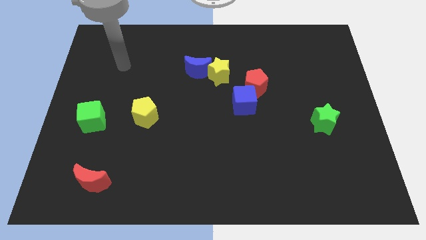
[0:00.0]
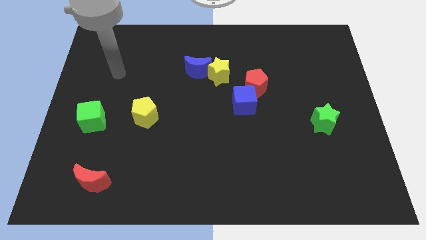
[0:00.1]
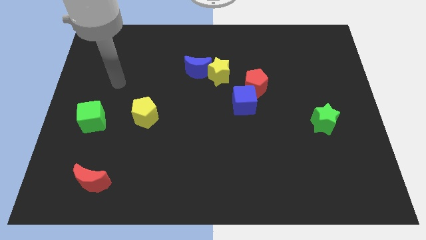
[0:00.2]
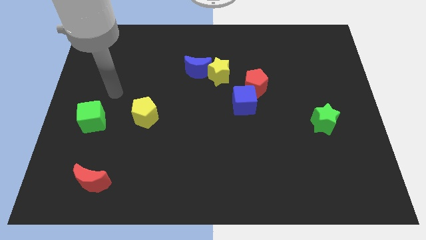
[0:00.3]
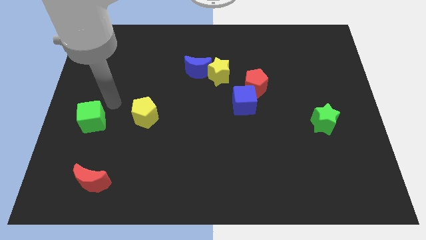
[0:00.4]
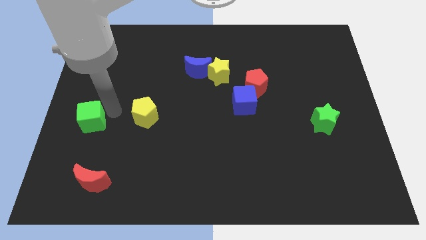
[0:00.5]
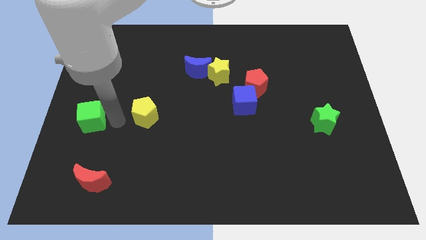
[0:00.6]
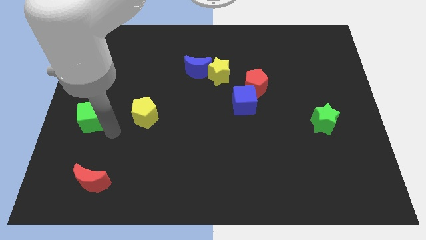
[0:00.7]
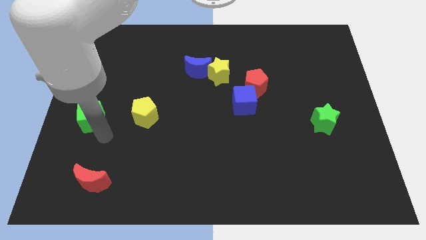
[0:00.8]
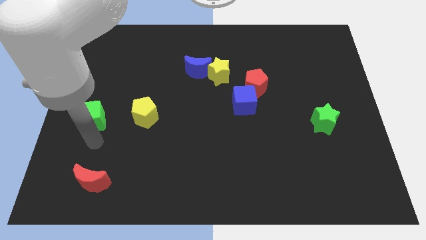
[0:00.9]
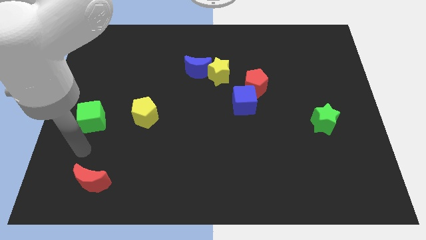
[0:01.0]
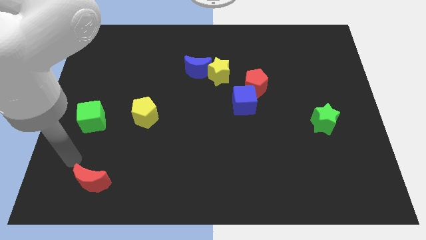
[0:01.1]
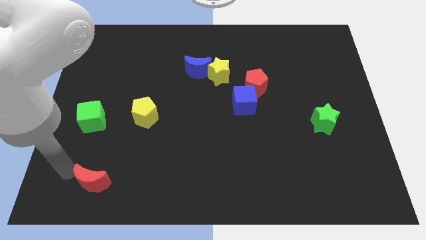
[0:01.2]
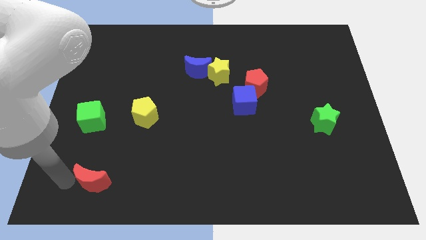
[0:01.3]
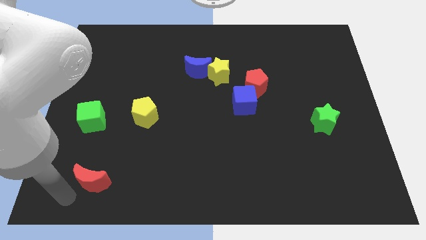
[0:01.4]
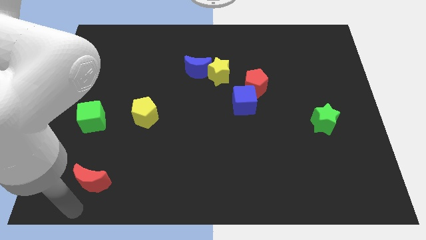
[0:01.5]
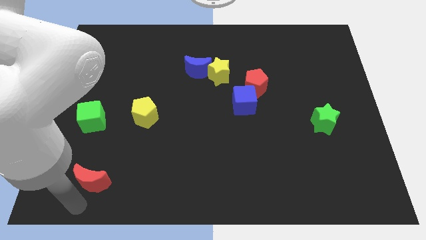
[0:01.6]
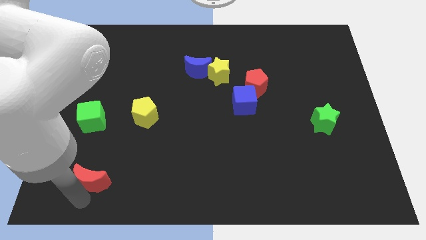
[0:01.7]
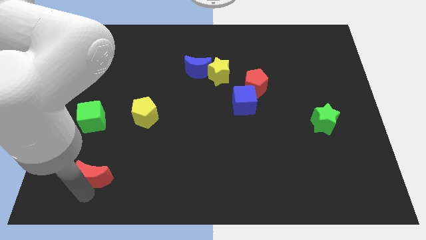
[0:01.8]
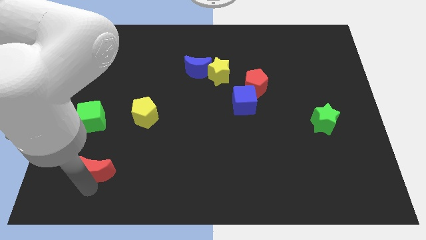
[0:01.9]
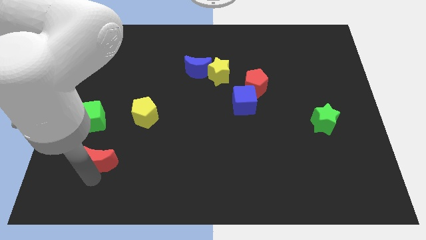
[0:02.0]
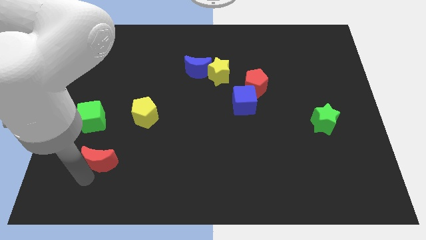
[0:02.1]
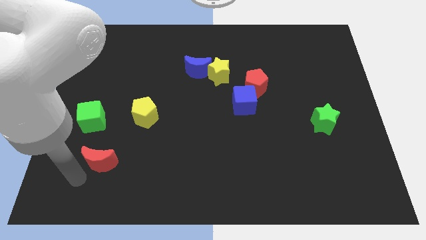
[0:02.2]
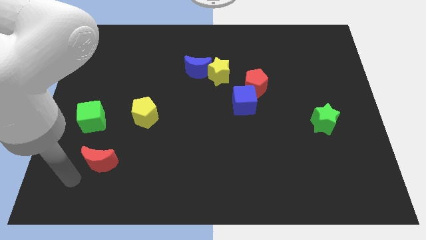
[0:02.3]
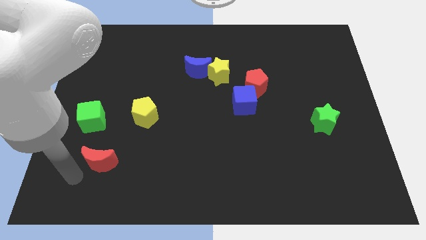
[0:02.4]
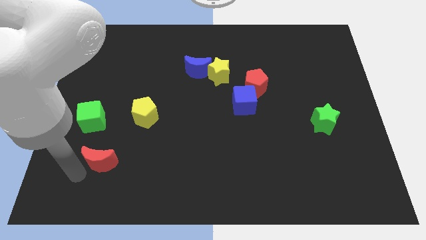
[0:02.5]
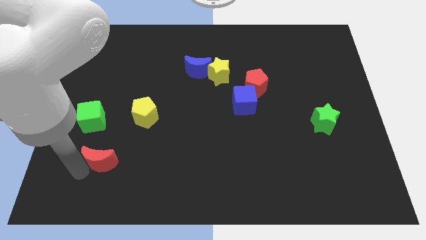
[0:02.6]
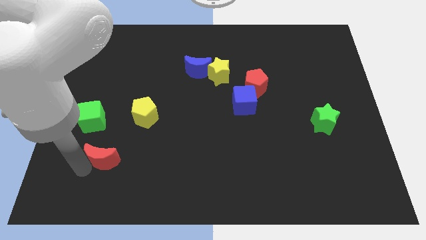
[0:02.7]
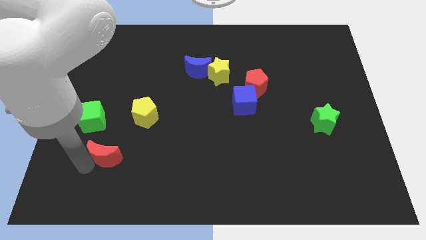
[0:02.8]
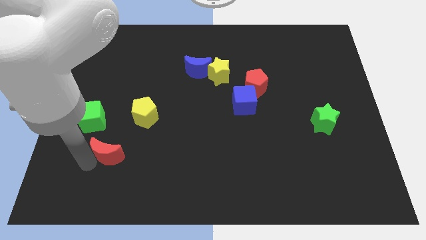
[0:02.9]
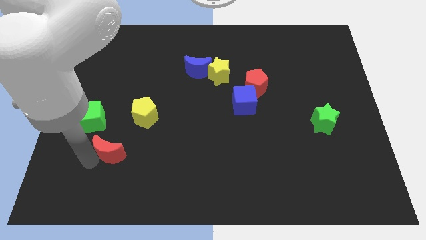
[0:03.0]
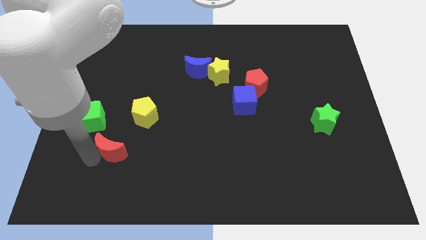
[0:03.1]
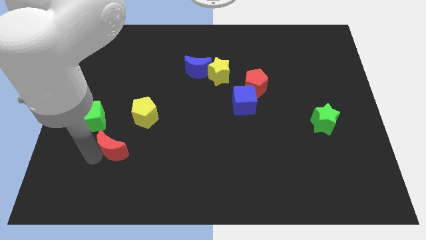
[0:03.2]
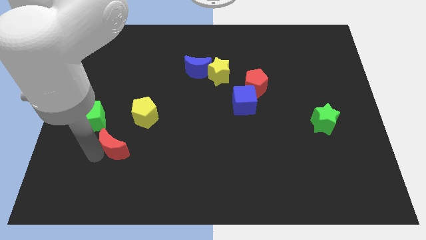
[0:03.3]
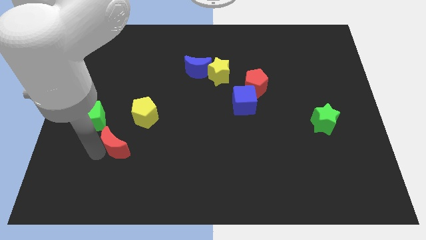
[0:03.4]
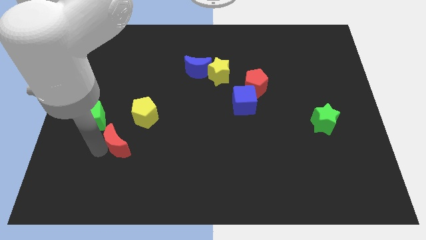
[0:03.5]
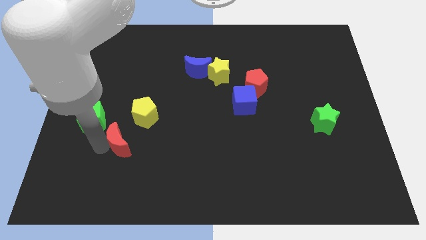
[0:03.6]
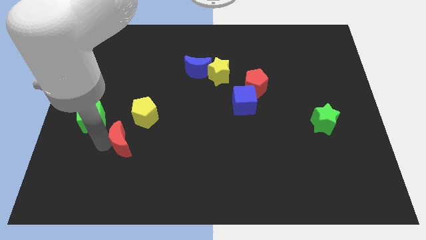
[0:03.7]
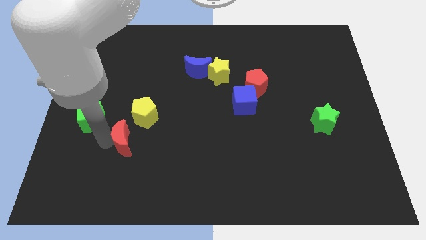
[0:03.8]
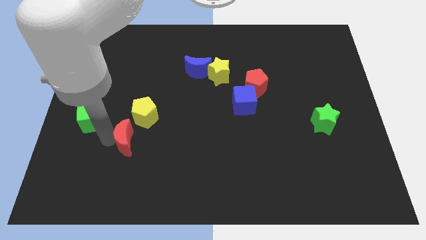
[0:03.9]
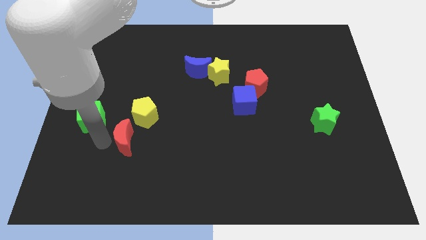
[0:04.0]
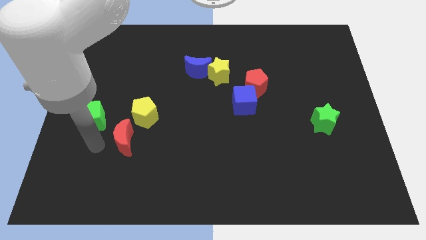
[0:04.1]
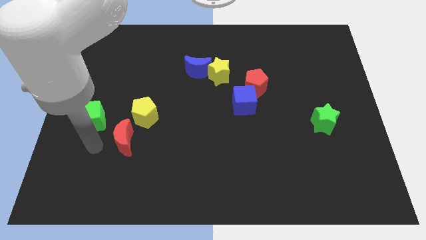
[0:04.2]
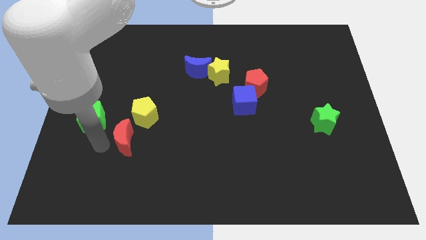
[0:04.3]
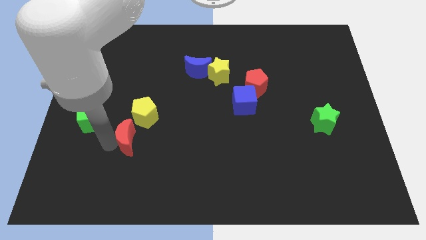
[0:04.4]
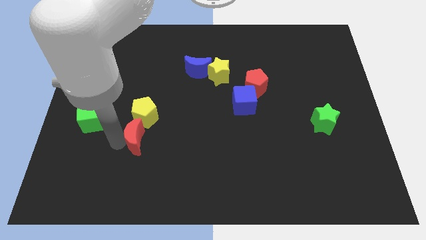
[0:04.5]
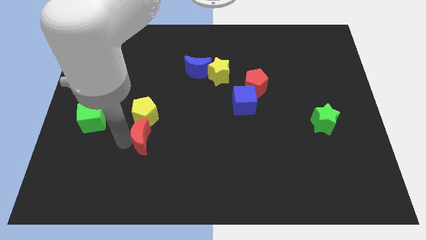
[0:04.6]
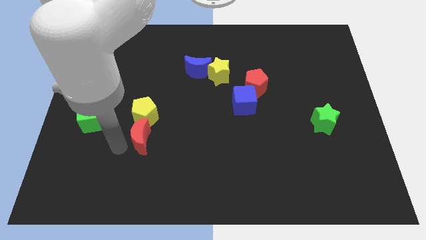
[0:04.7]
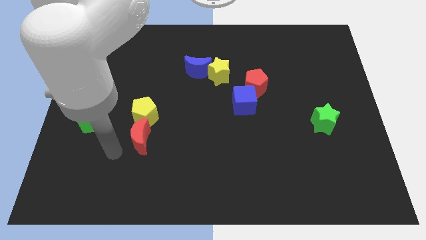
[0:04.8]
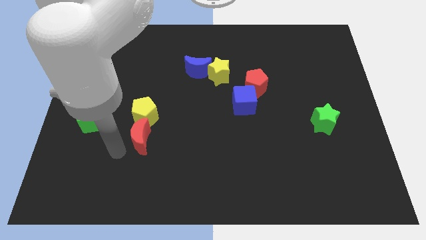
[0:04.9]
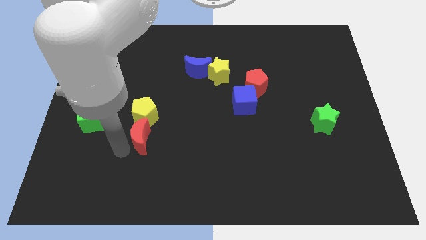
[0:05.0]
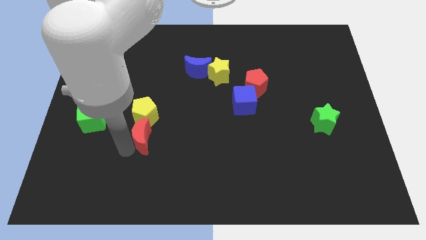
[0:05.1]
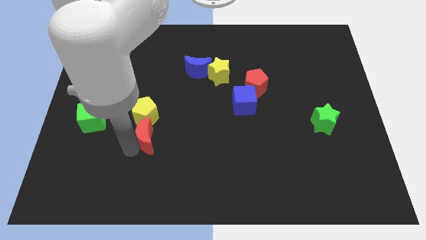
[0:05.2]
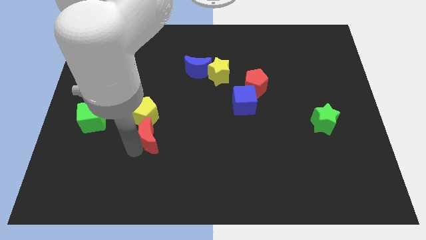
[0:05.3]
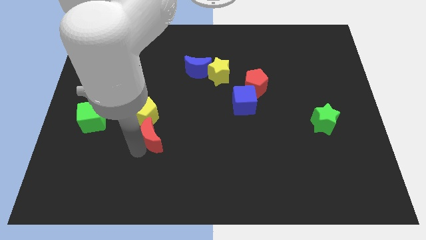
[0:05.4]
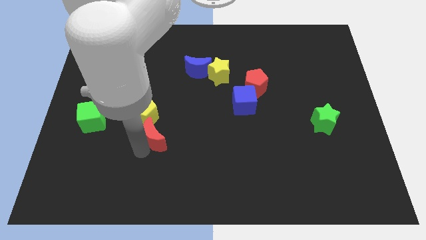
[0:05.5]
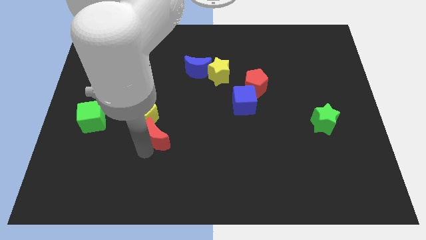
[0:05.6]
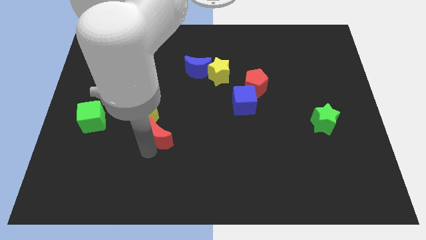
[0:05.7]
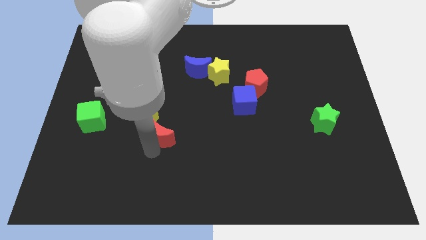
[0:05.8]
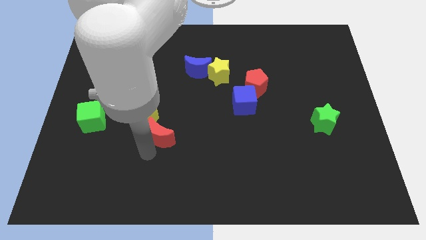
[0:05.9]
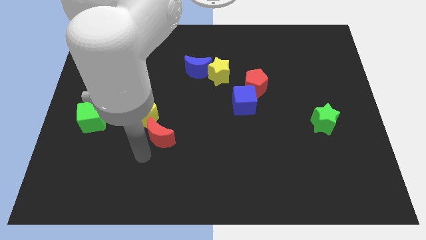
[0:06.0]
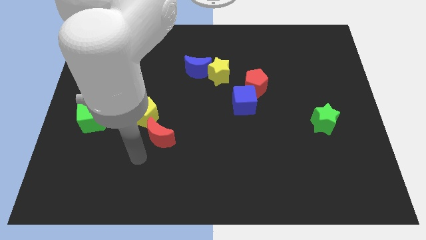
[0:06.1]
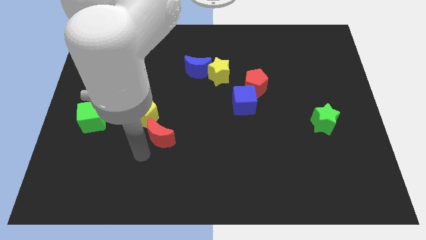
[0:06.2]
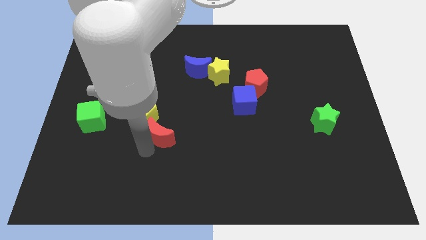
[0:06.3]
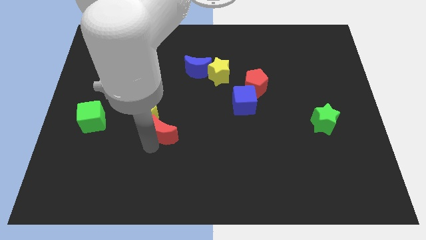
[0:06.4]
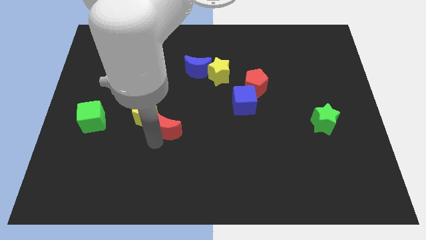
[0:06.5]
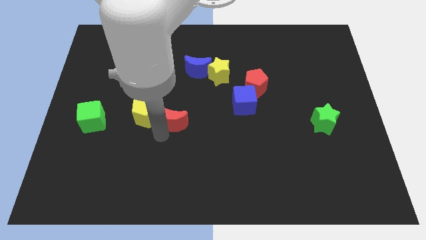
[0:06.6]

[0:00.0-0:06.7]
move the red moon upwards and right diagonally

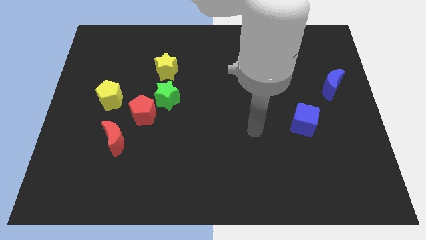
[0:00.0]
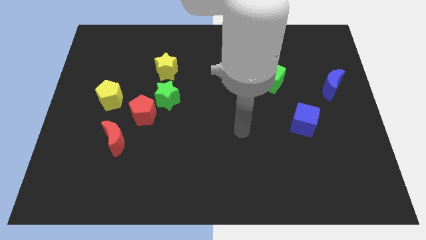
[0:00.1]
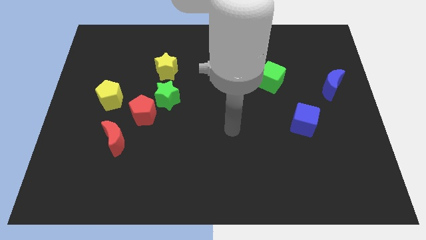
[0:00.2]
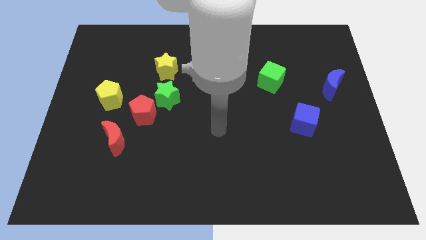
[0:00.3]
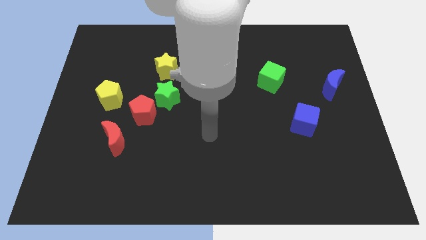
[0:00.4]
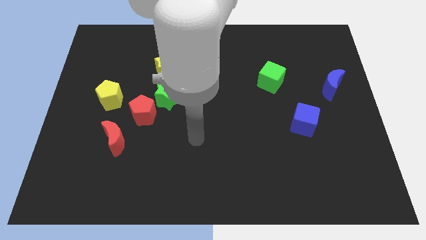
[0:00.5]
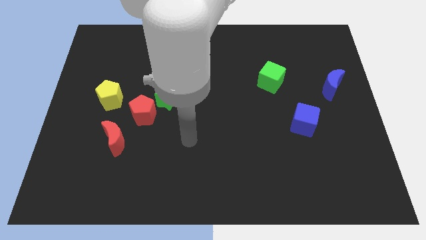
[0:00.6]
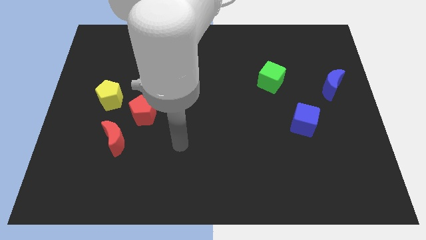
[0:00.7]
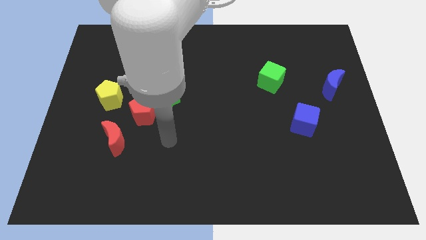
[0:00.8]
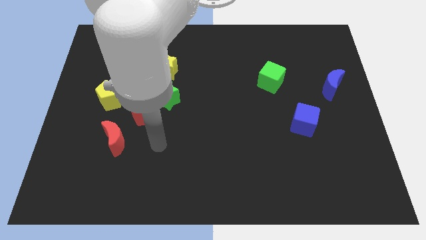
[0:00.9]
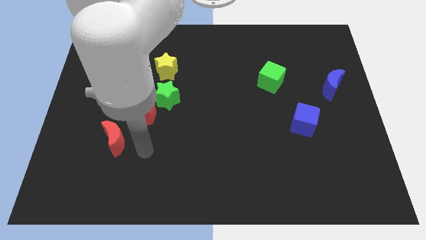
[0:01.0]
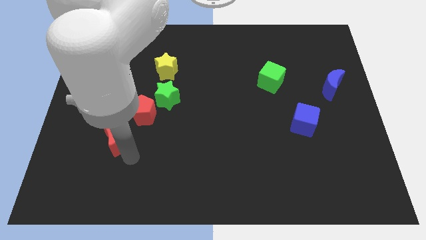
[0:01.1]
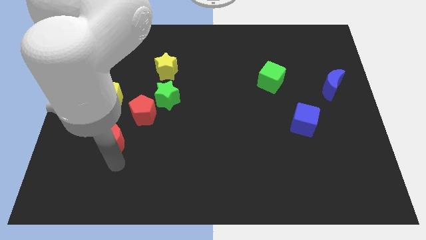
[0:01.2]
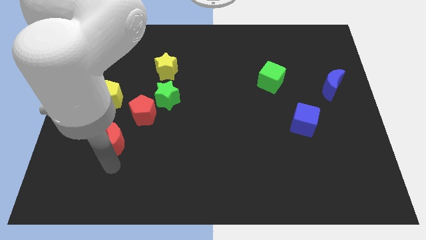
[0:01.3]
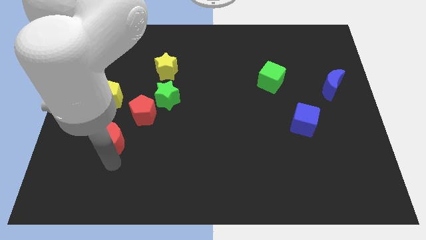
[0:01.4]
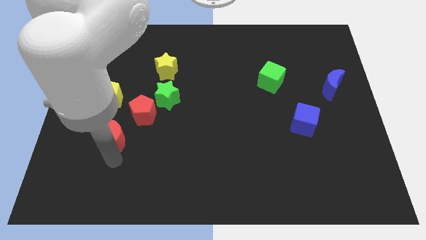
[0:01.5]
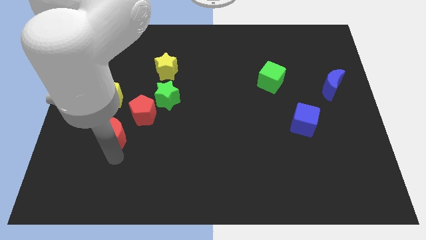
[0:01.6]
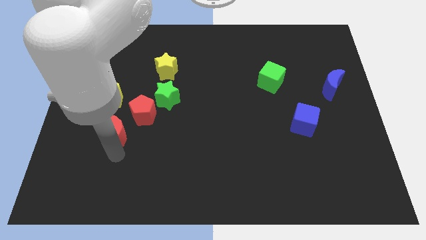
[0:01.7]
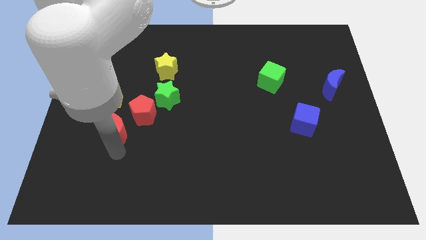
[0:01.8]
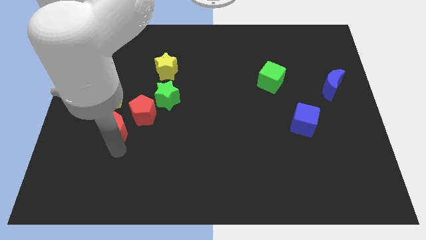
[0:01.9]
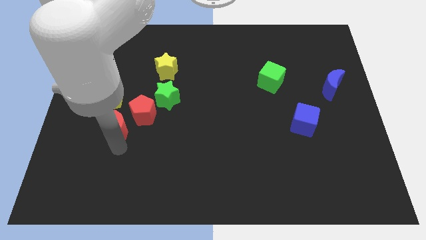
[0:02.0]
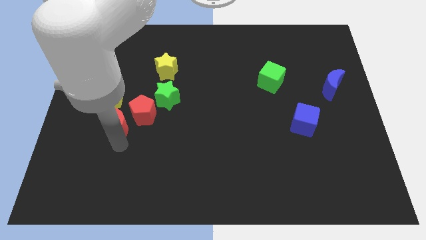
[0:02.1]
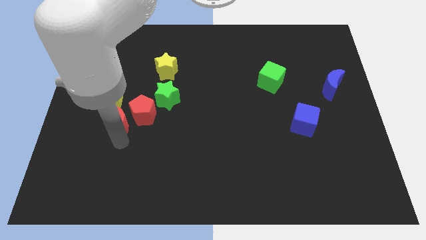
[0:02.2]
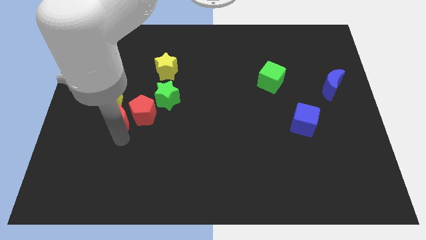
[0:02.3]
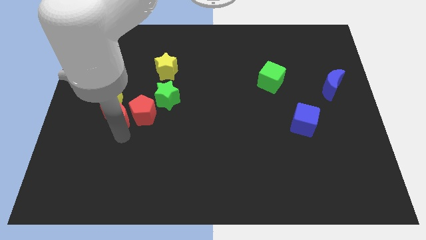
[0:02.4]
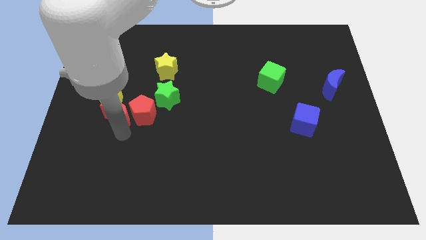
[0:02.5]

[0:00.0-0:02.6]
slightly push the red moon up
